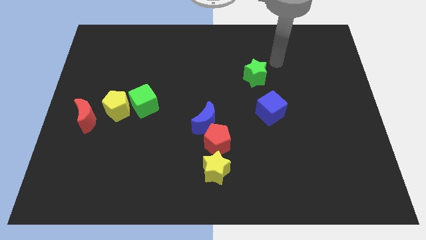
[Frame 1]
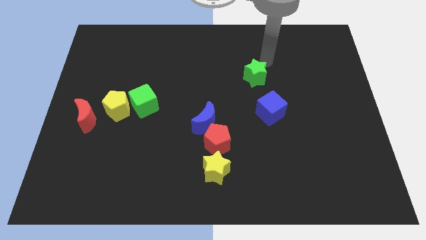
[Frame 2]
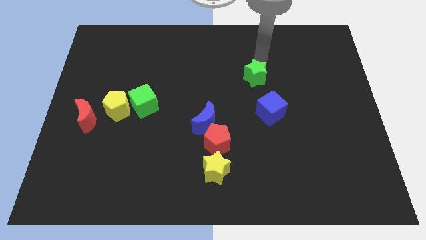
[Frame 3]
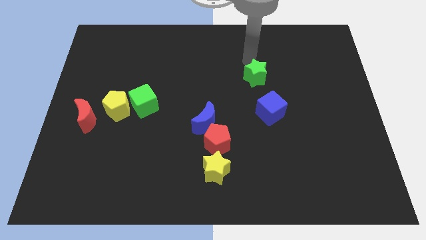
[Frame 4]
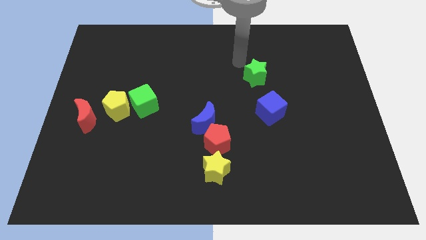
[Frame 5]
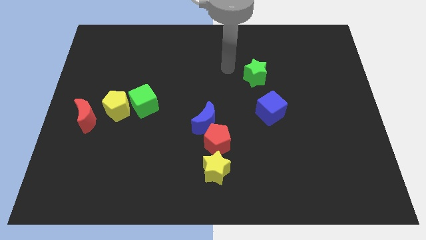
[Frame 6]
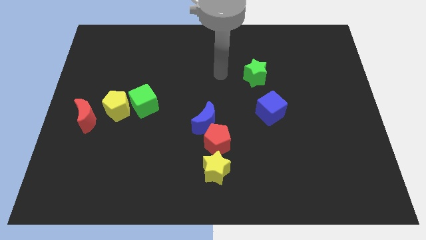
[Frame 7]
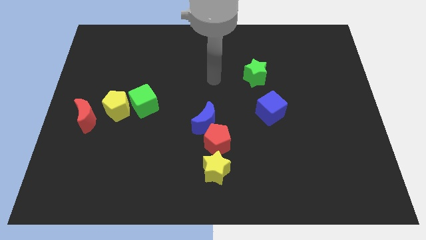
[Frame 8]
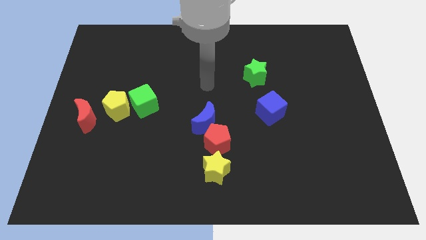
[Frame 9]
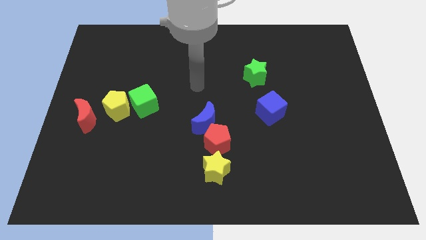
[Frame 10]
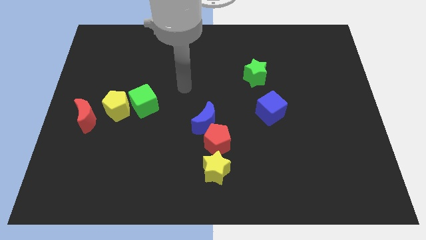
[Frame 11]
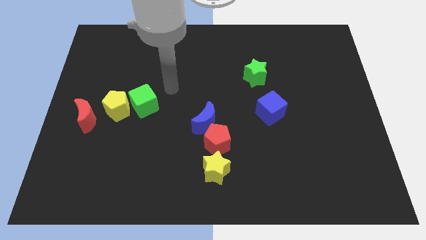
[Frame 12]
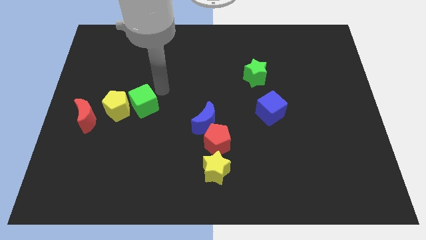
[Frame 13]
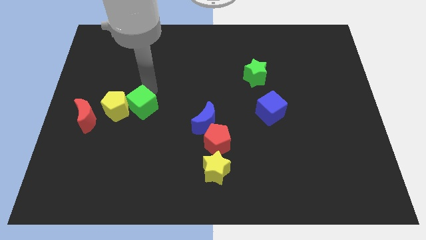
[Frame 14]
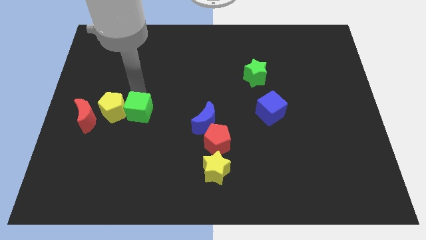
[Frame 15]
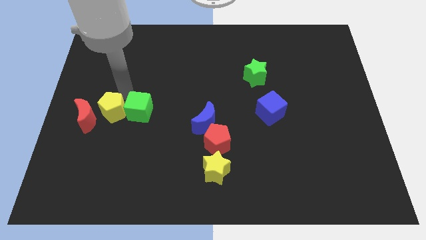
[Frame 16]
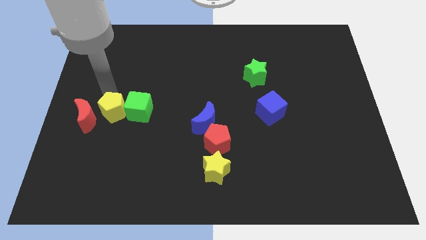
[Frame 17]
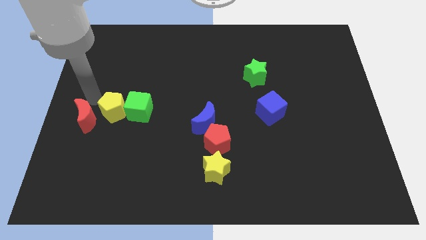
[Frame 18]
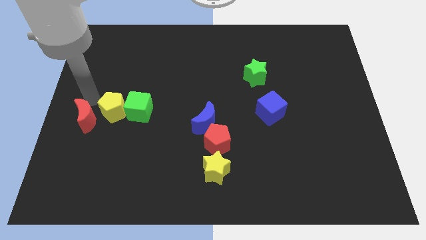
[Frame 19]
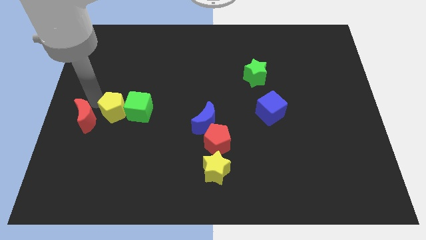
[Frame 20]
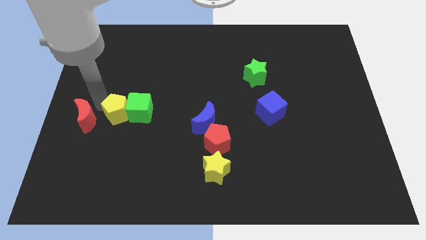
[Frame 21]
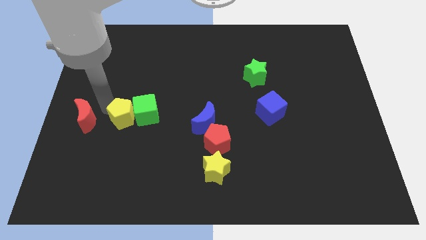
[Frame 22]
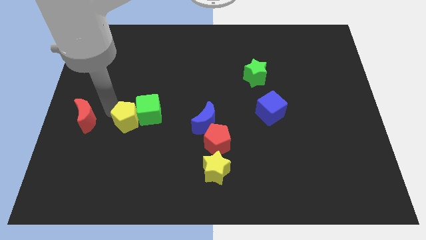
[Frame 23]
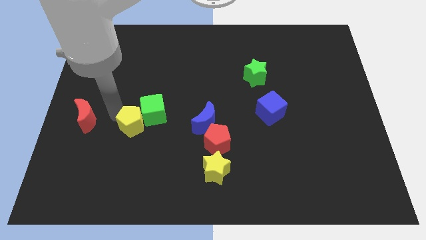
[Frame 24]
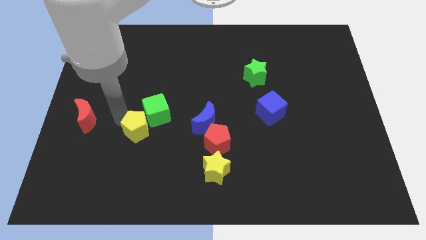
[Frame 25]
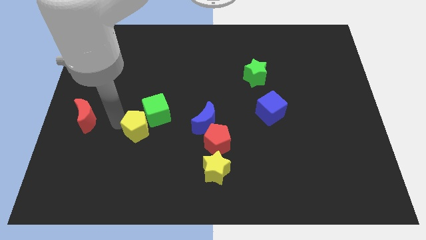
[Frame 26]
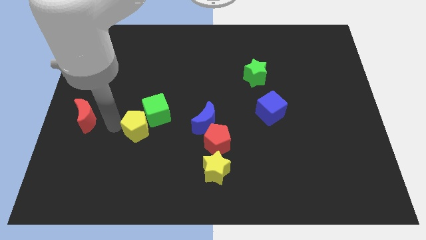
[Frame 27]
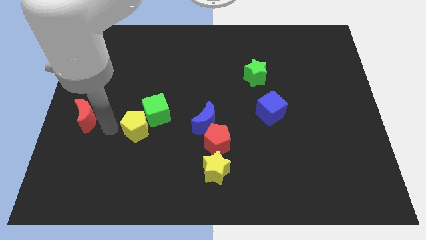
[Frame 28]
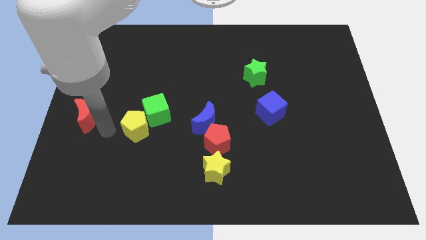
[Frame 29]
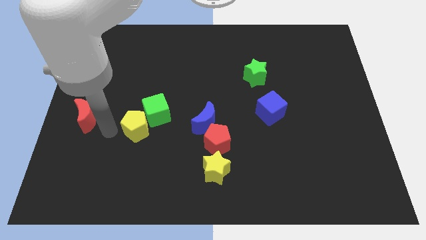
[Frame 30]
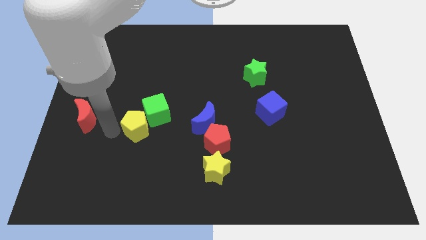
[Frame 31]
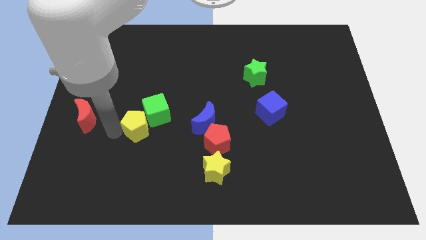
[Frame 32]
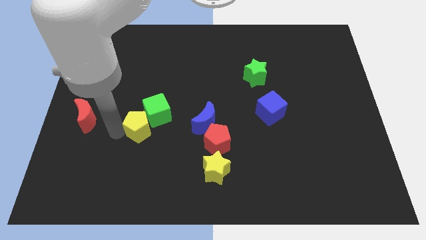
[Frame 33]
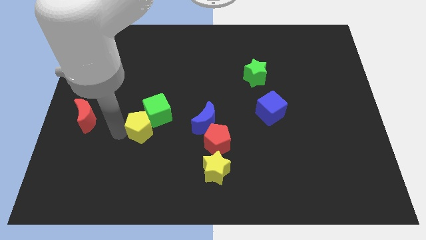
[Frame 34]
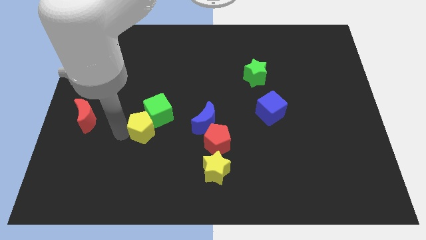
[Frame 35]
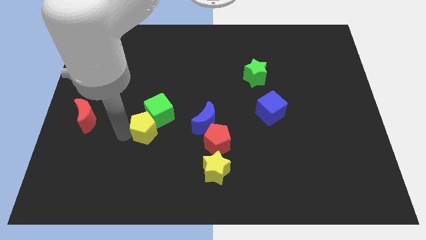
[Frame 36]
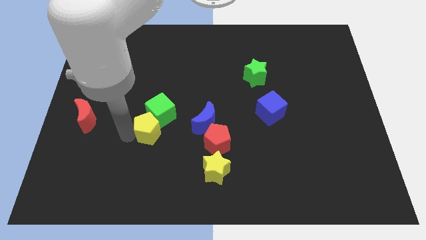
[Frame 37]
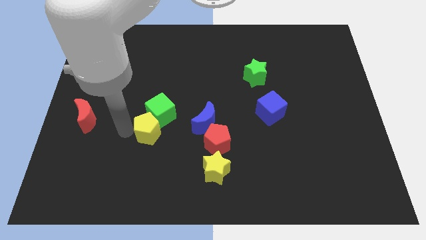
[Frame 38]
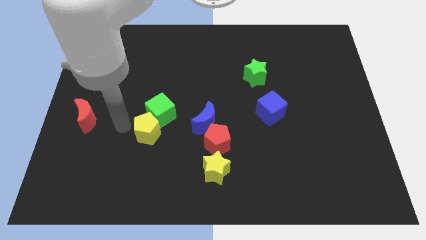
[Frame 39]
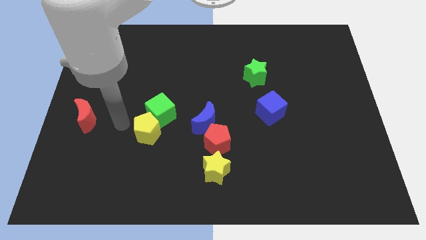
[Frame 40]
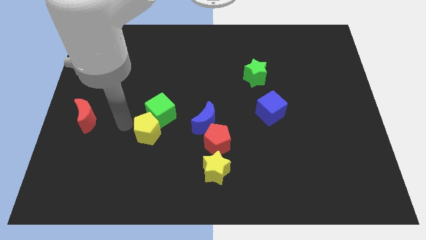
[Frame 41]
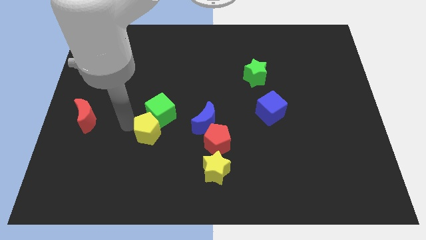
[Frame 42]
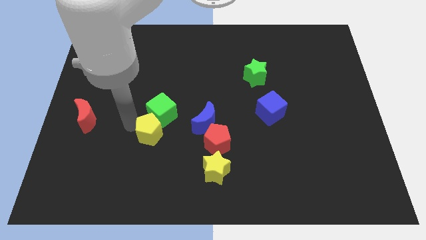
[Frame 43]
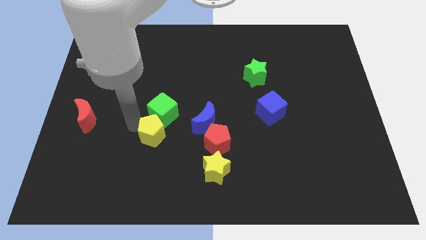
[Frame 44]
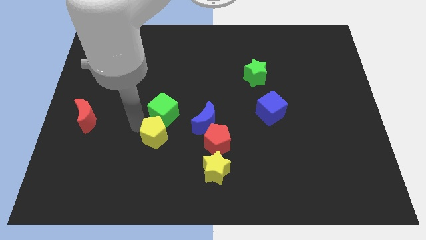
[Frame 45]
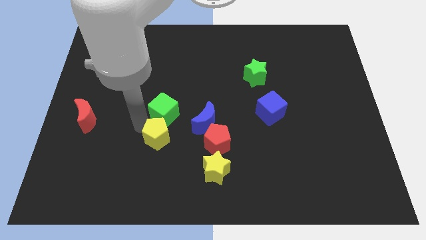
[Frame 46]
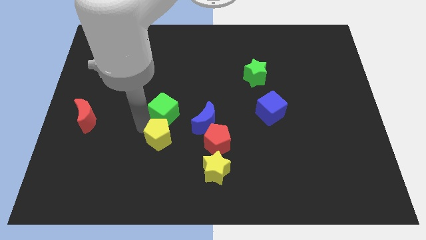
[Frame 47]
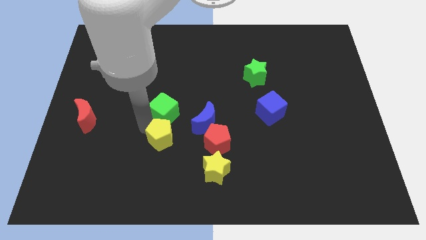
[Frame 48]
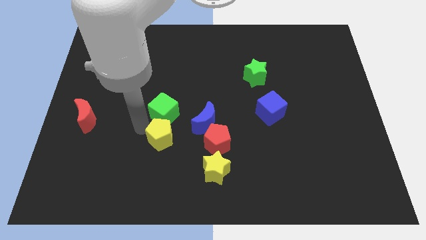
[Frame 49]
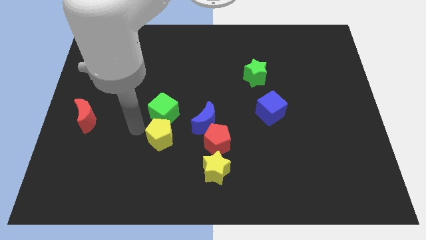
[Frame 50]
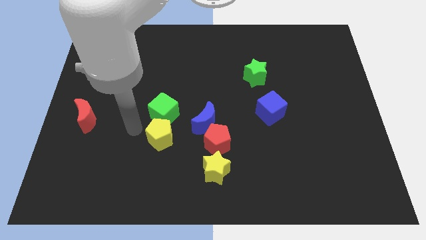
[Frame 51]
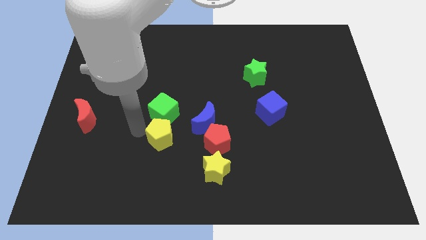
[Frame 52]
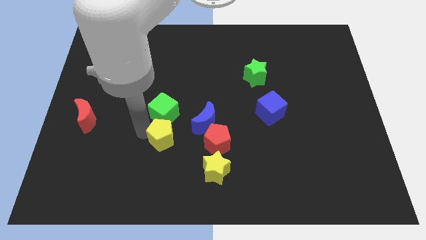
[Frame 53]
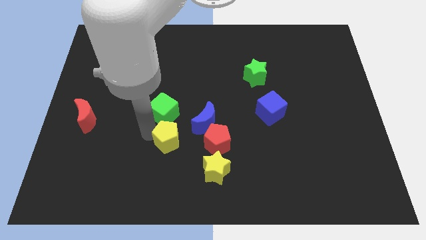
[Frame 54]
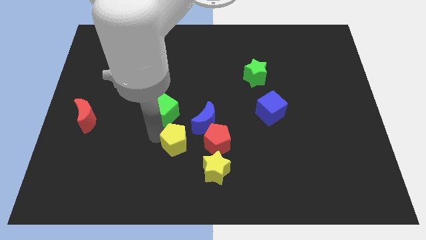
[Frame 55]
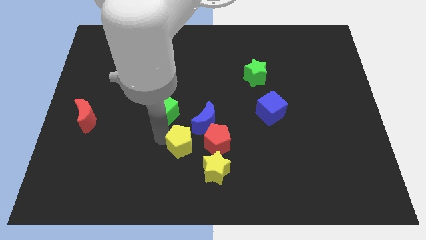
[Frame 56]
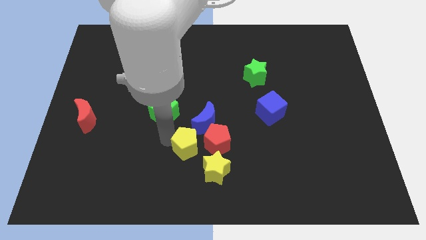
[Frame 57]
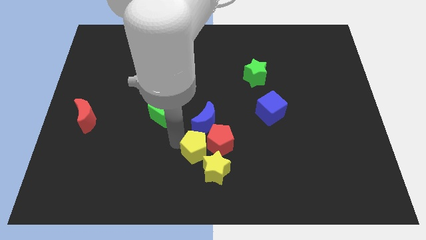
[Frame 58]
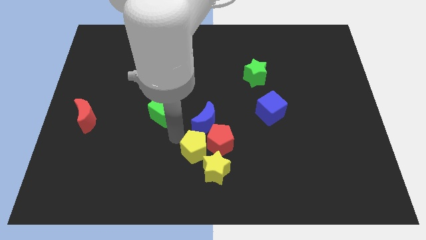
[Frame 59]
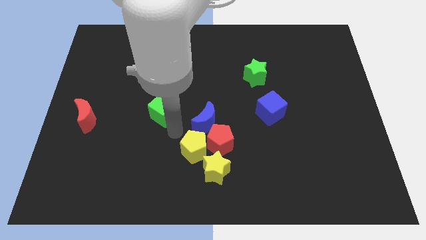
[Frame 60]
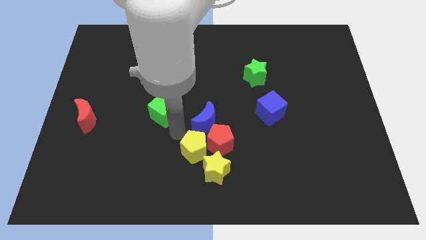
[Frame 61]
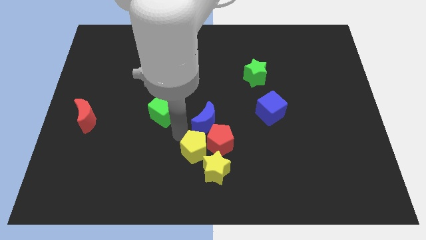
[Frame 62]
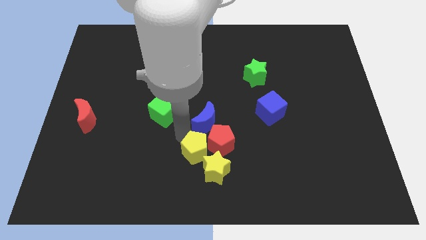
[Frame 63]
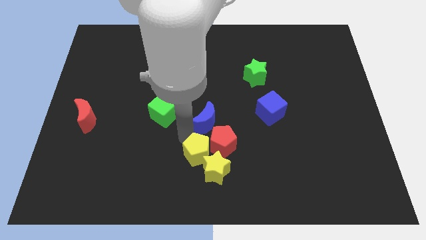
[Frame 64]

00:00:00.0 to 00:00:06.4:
slide the yellow pentagon to the yellow star

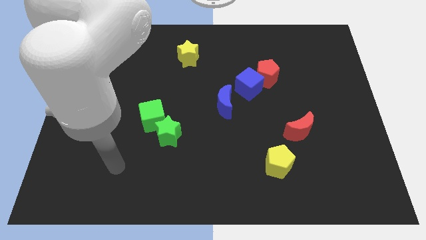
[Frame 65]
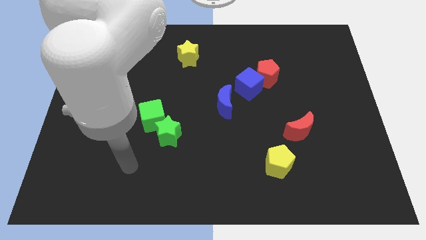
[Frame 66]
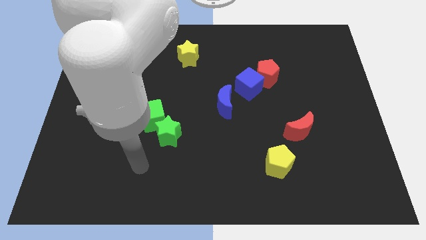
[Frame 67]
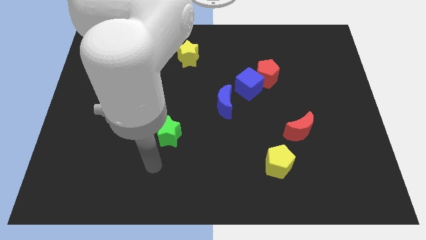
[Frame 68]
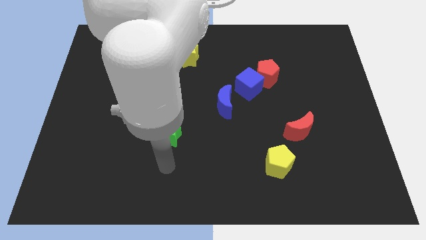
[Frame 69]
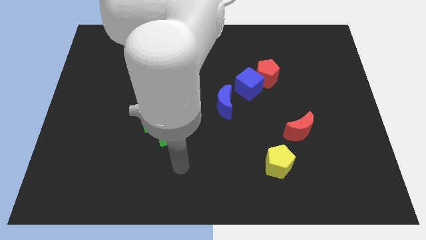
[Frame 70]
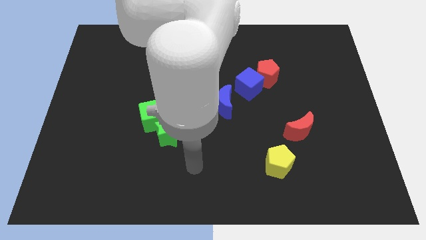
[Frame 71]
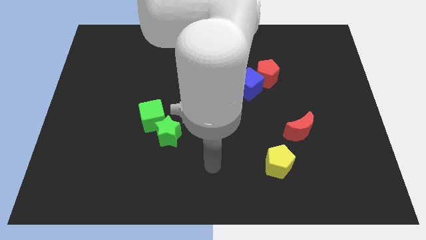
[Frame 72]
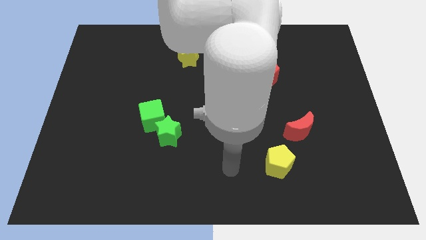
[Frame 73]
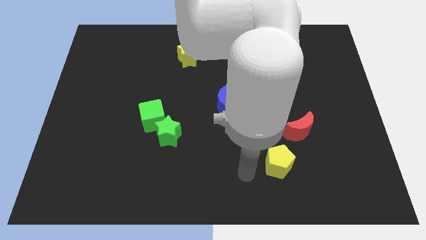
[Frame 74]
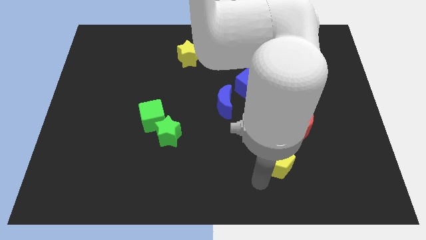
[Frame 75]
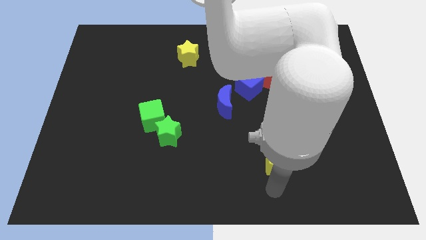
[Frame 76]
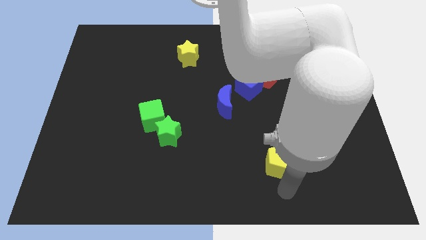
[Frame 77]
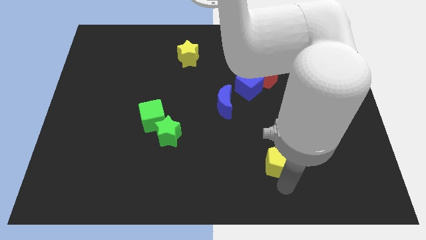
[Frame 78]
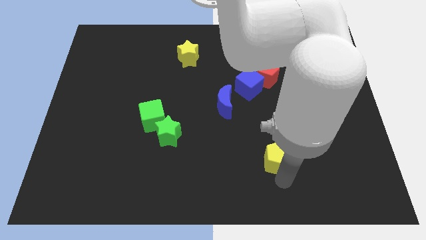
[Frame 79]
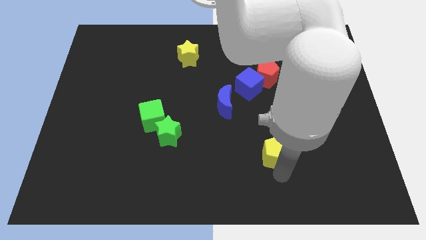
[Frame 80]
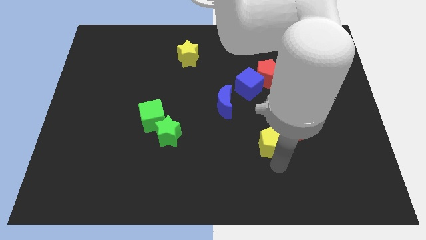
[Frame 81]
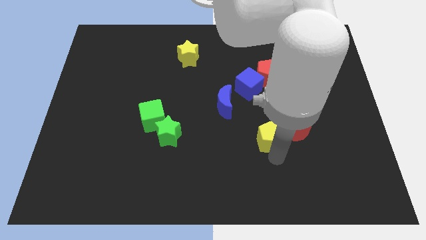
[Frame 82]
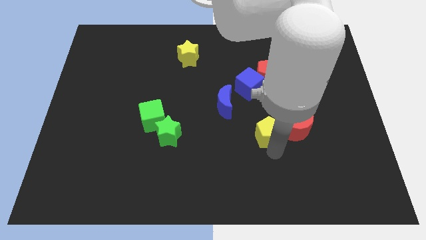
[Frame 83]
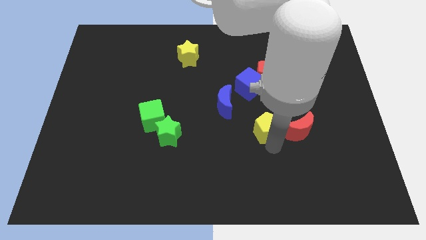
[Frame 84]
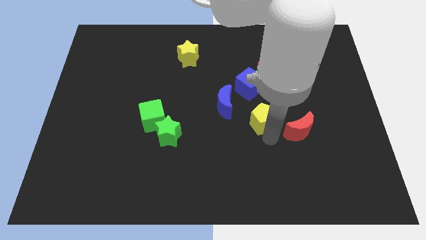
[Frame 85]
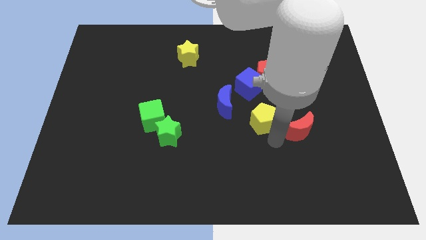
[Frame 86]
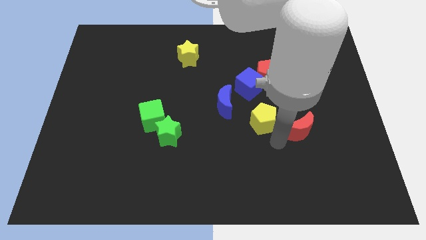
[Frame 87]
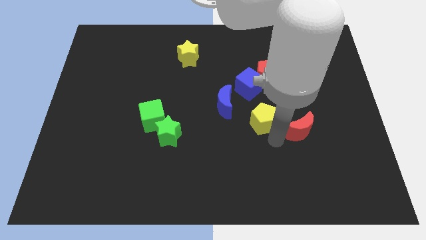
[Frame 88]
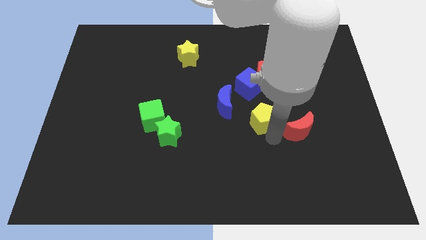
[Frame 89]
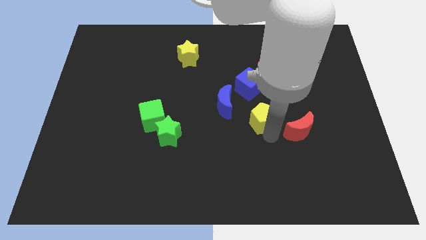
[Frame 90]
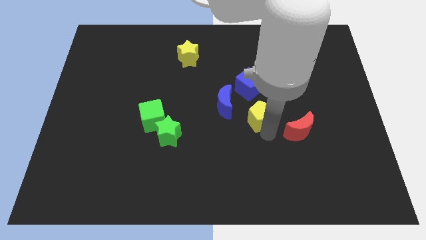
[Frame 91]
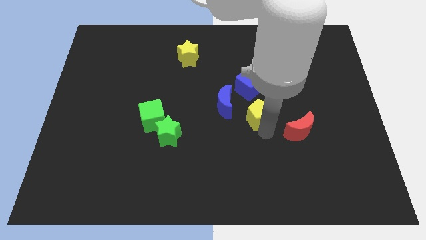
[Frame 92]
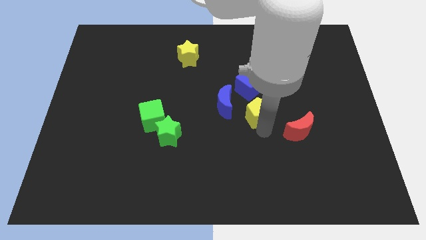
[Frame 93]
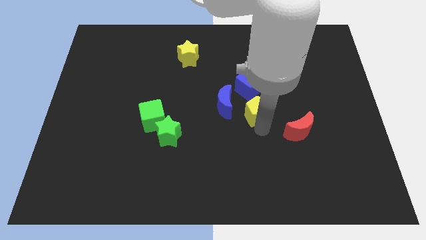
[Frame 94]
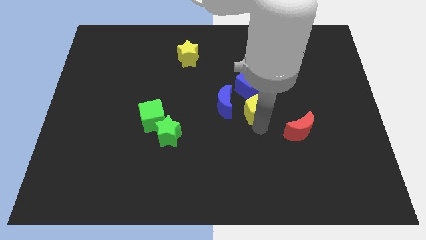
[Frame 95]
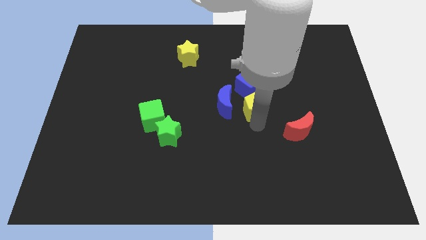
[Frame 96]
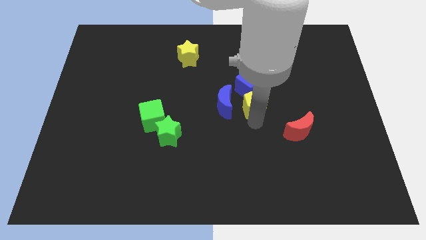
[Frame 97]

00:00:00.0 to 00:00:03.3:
push the yellow pentagon close to the blue cube
